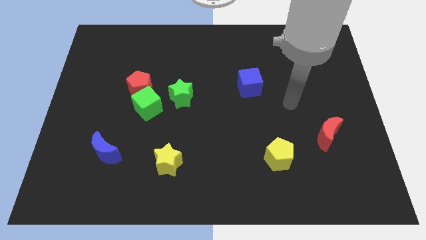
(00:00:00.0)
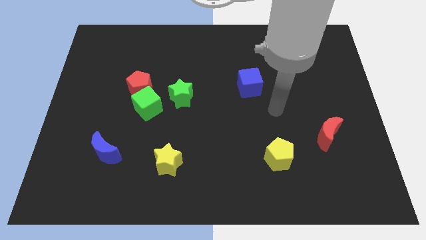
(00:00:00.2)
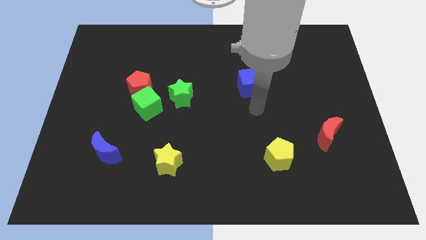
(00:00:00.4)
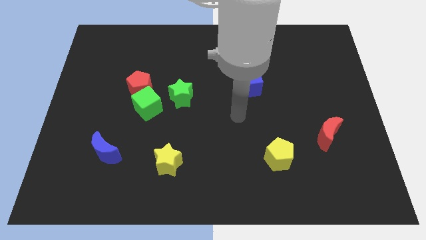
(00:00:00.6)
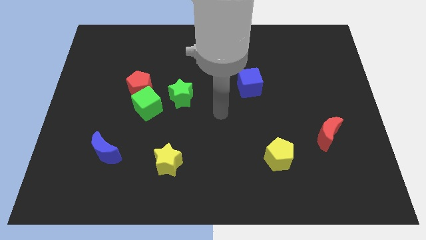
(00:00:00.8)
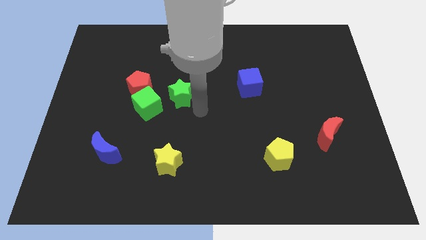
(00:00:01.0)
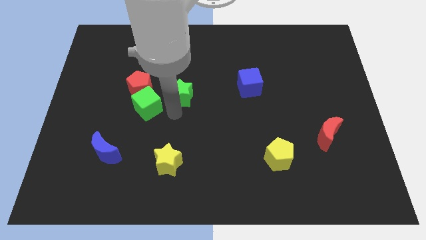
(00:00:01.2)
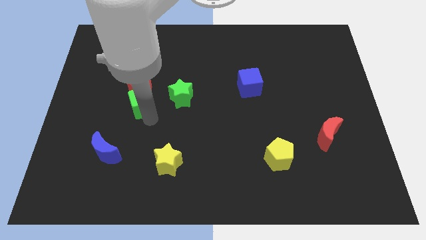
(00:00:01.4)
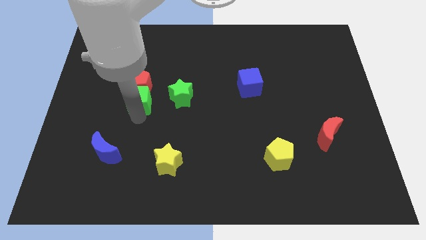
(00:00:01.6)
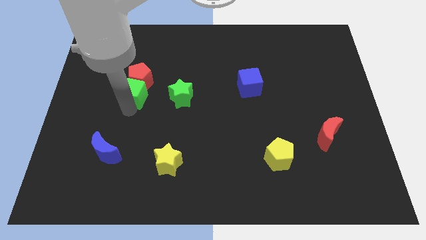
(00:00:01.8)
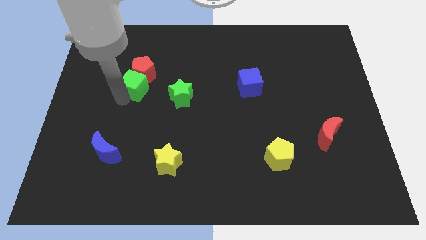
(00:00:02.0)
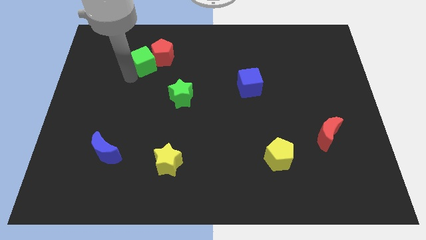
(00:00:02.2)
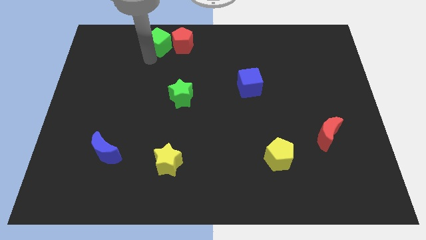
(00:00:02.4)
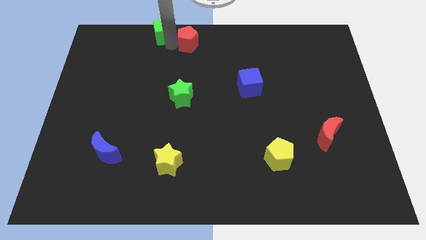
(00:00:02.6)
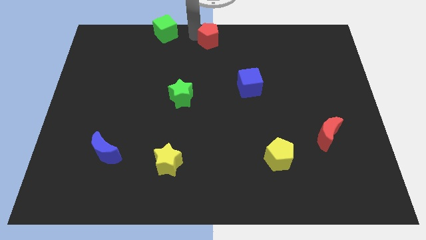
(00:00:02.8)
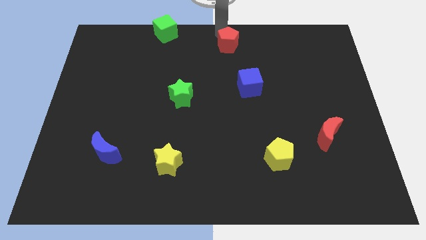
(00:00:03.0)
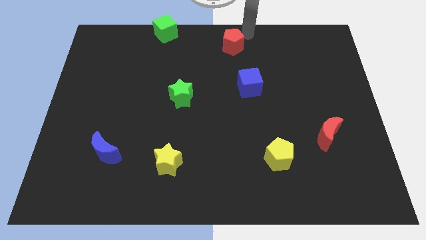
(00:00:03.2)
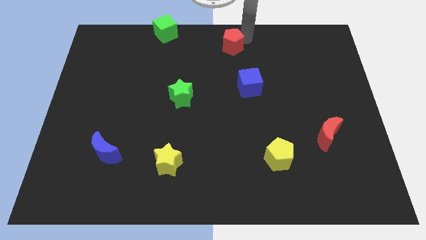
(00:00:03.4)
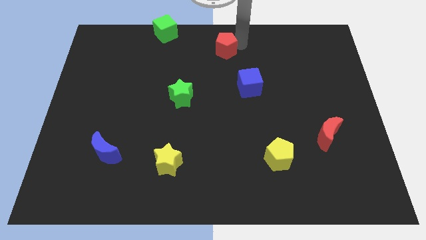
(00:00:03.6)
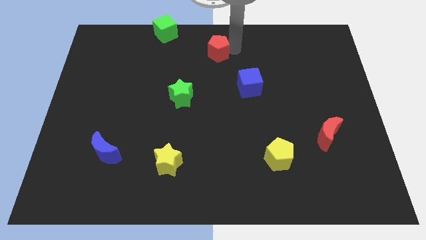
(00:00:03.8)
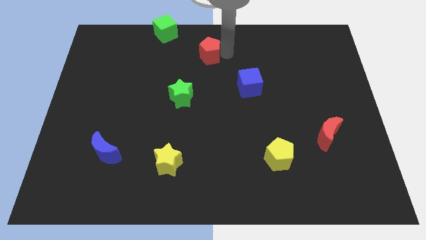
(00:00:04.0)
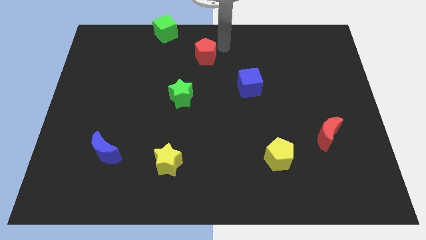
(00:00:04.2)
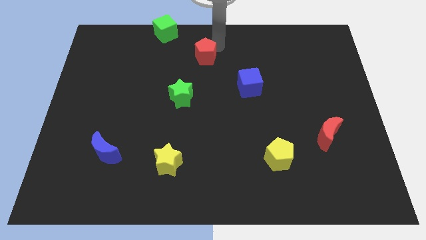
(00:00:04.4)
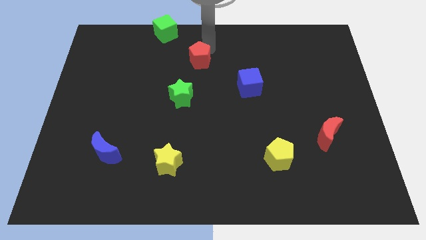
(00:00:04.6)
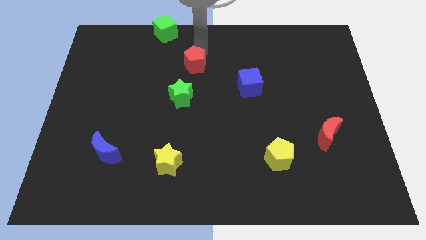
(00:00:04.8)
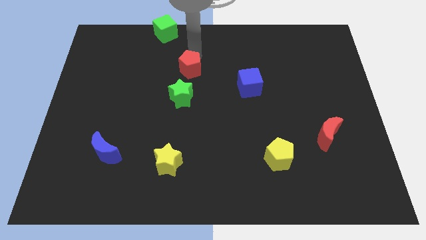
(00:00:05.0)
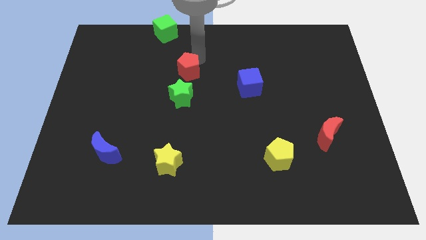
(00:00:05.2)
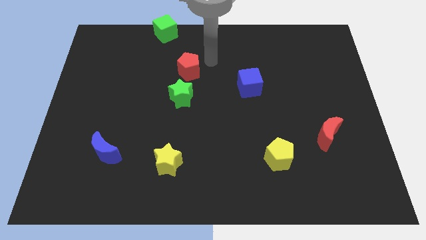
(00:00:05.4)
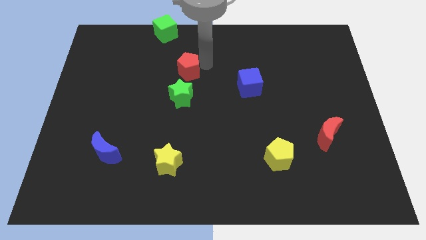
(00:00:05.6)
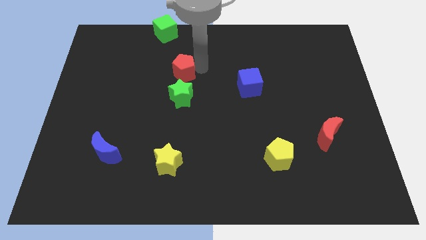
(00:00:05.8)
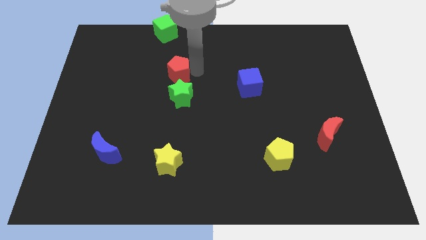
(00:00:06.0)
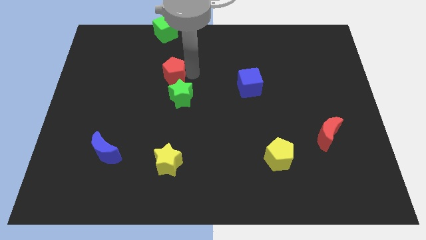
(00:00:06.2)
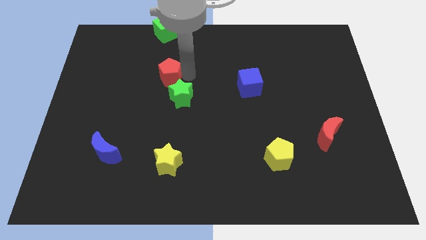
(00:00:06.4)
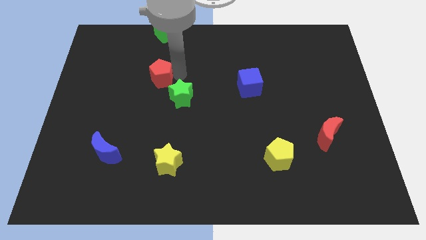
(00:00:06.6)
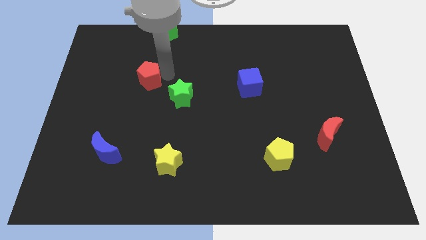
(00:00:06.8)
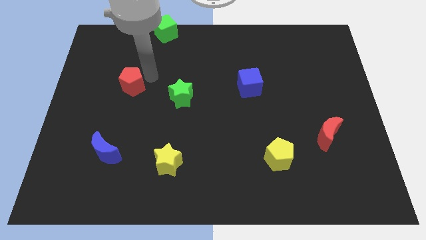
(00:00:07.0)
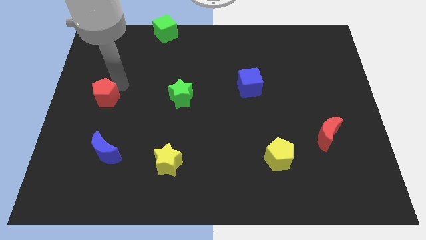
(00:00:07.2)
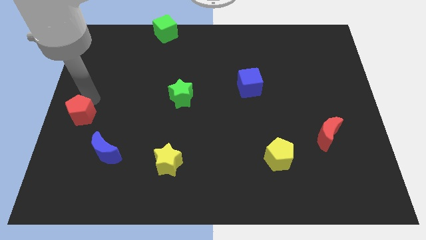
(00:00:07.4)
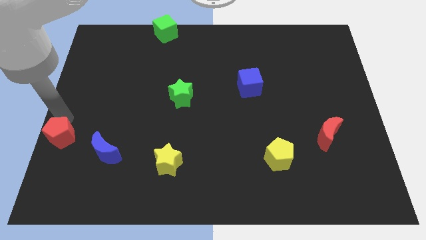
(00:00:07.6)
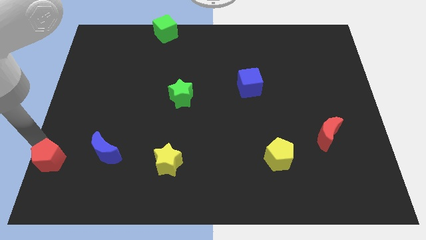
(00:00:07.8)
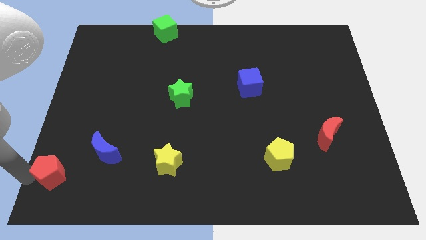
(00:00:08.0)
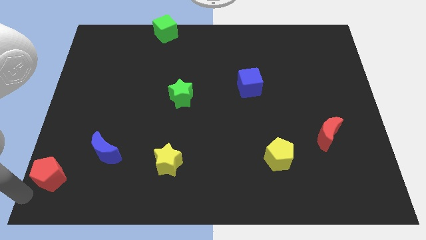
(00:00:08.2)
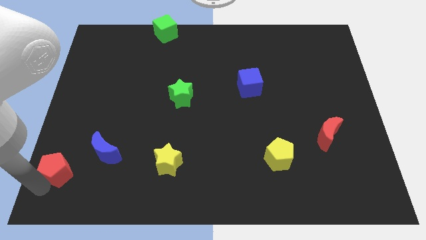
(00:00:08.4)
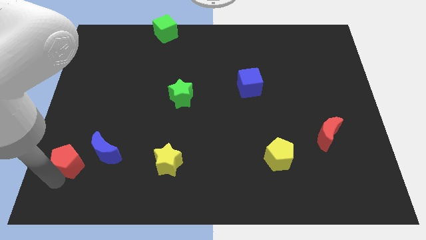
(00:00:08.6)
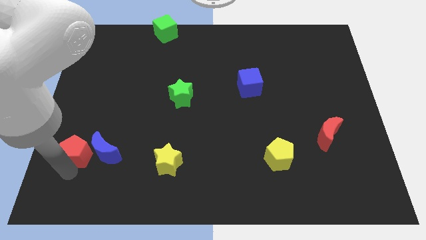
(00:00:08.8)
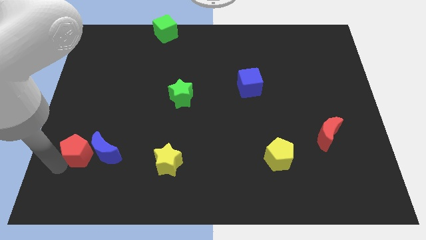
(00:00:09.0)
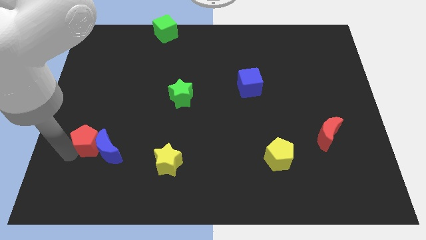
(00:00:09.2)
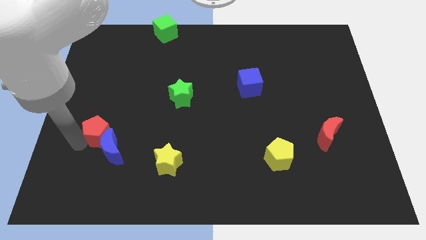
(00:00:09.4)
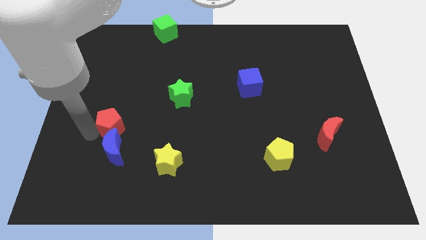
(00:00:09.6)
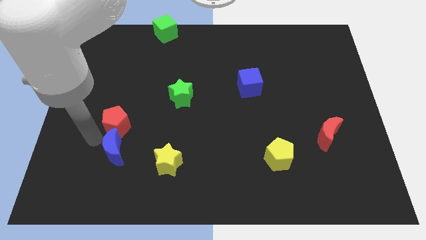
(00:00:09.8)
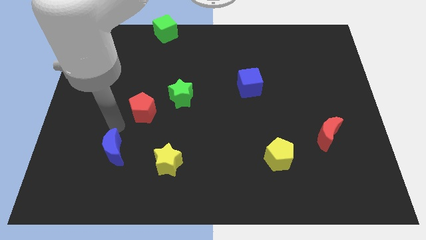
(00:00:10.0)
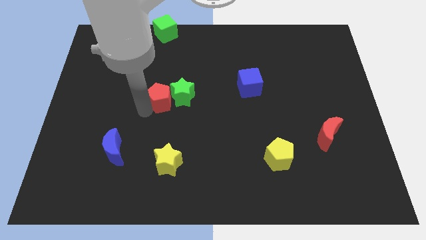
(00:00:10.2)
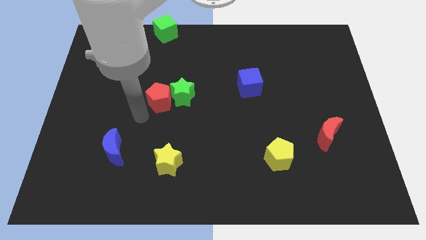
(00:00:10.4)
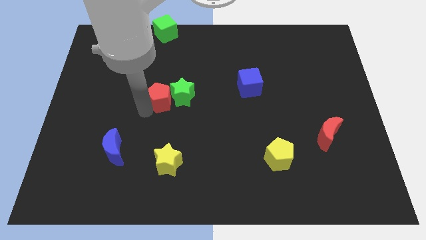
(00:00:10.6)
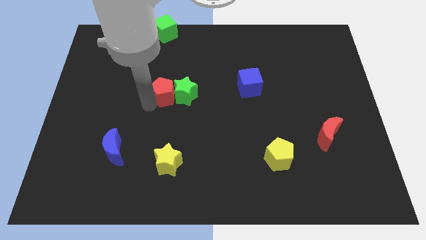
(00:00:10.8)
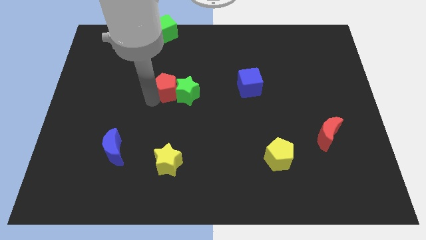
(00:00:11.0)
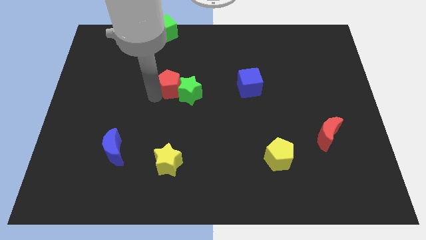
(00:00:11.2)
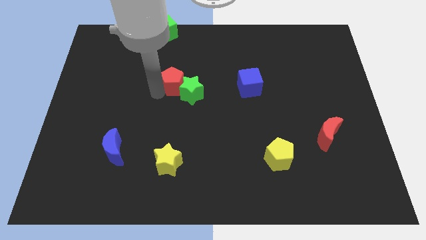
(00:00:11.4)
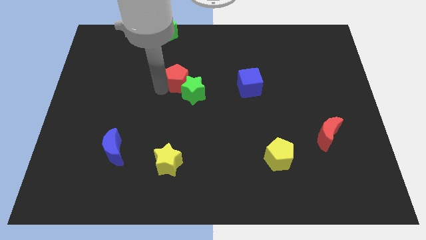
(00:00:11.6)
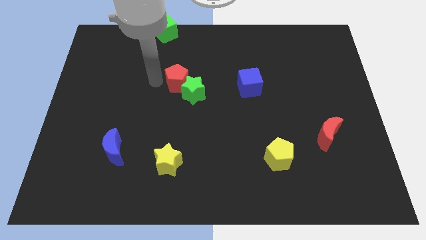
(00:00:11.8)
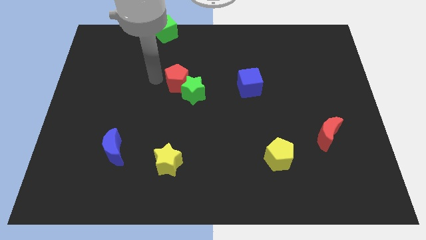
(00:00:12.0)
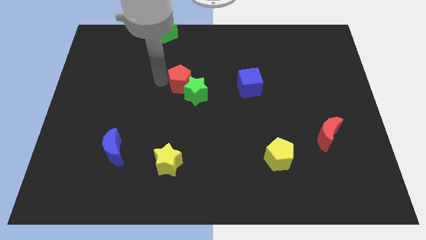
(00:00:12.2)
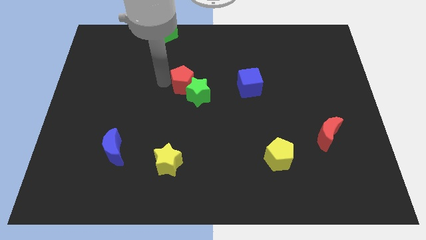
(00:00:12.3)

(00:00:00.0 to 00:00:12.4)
slide the red pentagon left of the blue cube

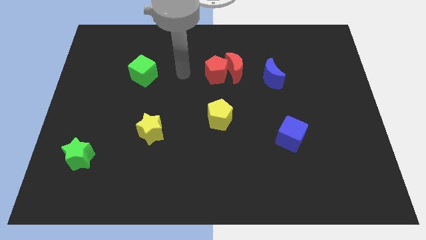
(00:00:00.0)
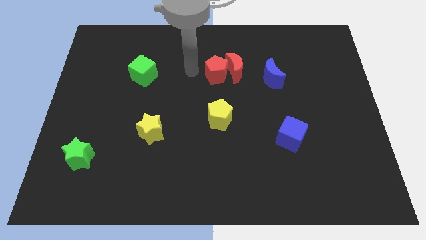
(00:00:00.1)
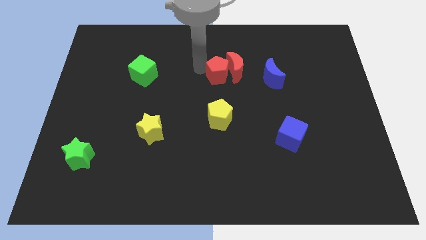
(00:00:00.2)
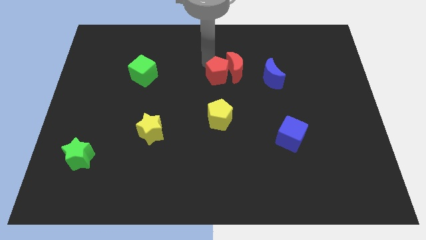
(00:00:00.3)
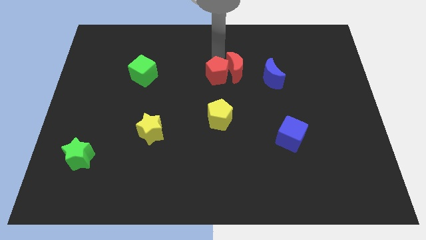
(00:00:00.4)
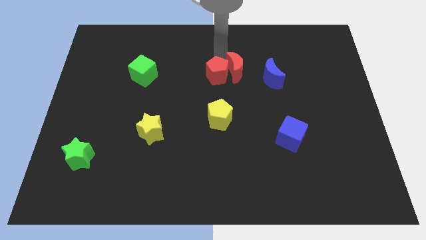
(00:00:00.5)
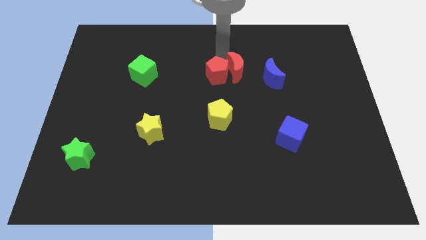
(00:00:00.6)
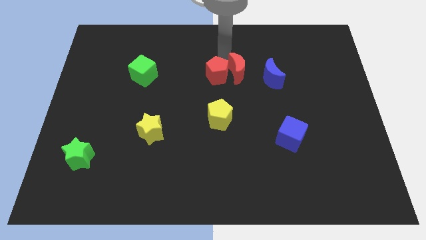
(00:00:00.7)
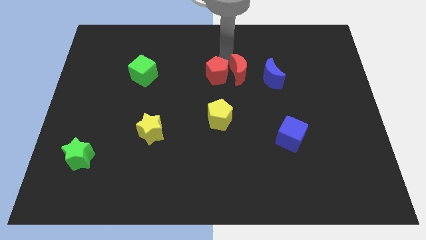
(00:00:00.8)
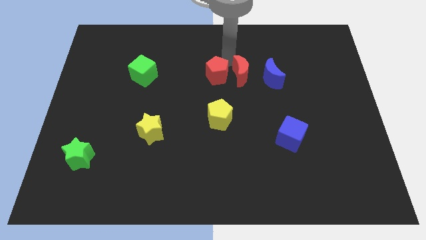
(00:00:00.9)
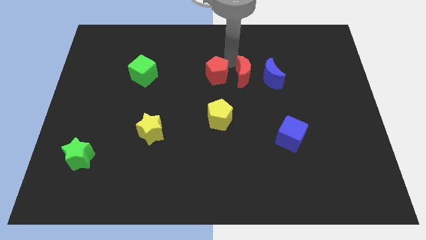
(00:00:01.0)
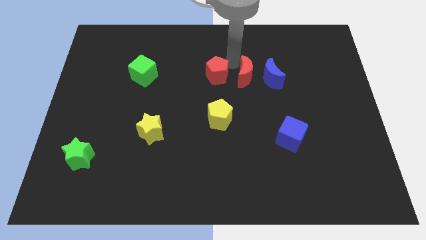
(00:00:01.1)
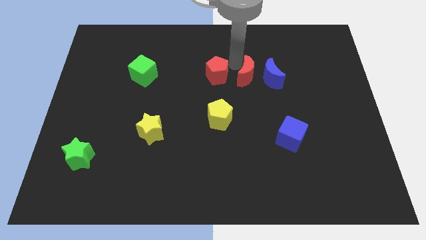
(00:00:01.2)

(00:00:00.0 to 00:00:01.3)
move the red moon to the bottom left of the blue moon
